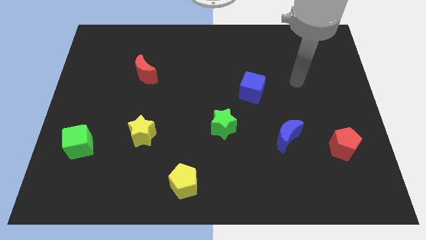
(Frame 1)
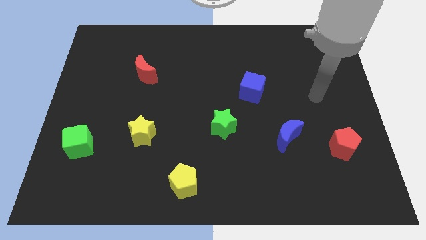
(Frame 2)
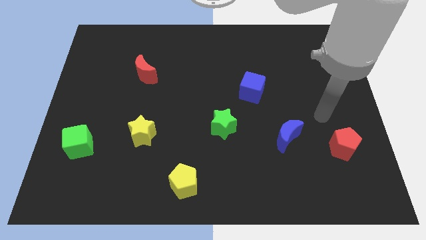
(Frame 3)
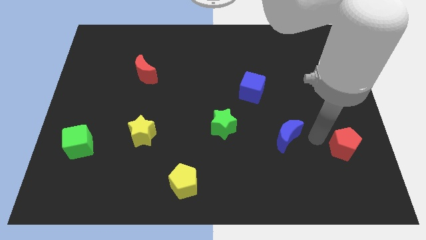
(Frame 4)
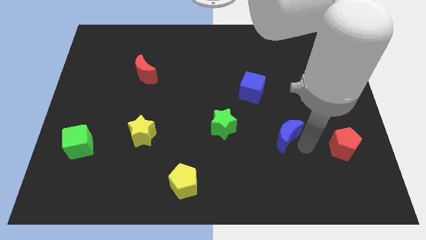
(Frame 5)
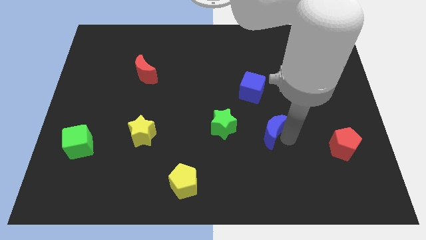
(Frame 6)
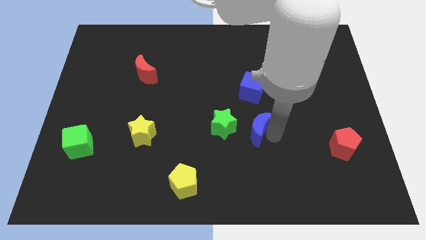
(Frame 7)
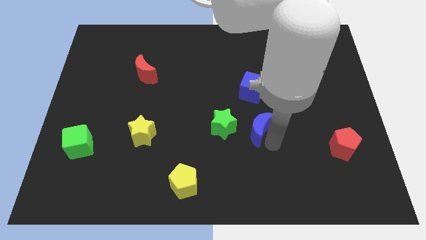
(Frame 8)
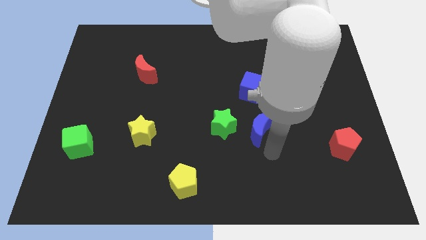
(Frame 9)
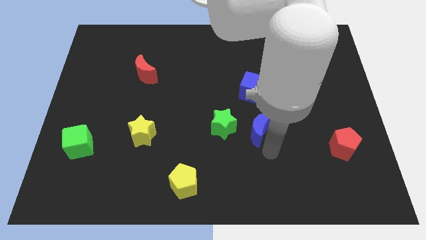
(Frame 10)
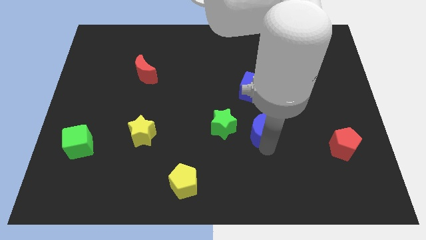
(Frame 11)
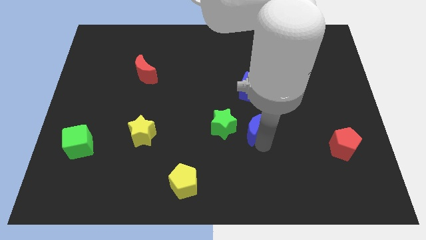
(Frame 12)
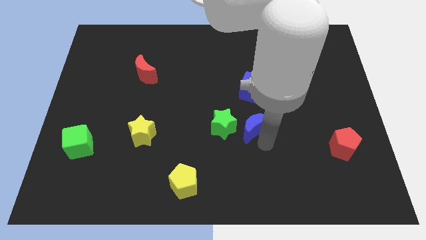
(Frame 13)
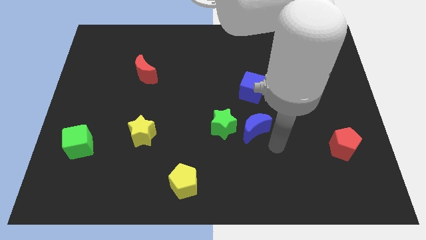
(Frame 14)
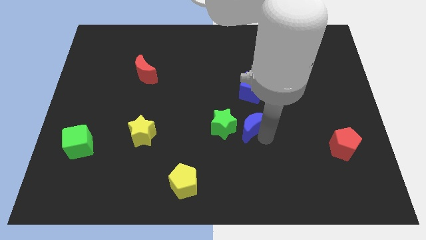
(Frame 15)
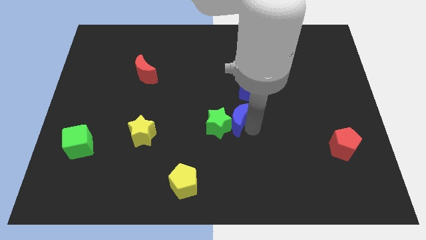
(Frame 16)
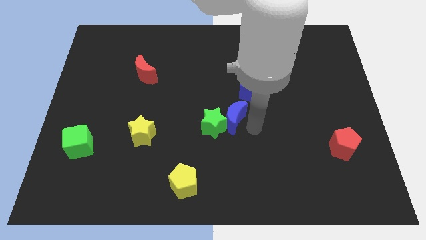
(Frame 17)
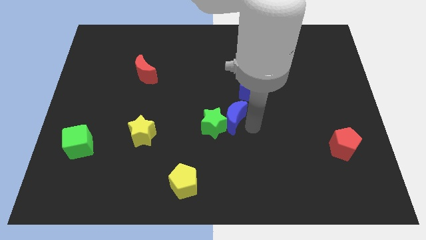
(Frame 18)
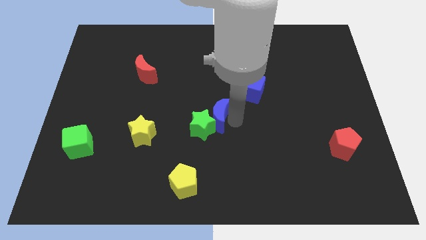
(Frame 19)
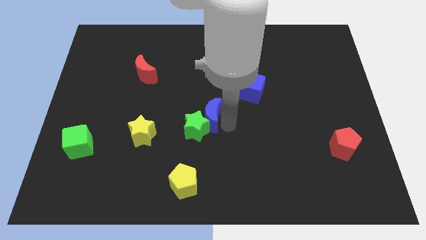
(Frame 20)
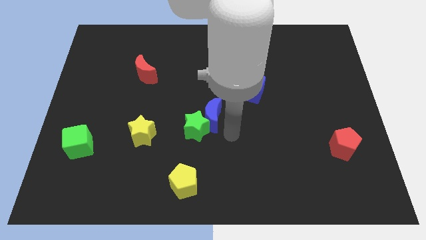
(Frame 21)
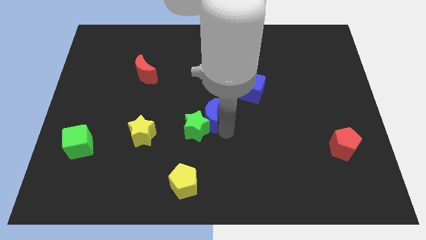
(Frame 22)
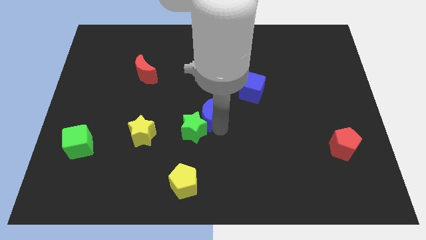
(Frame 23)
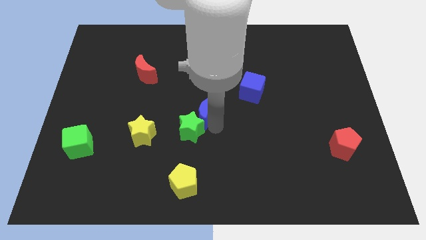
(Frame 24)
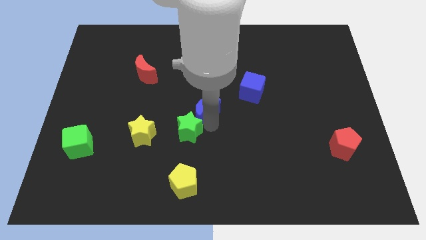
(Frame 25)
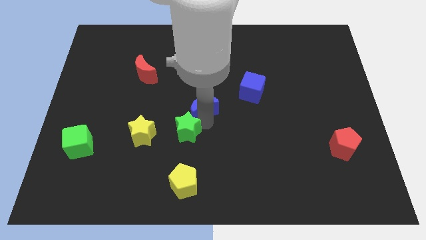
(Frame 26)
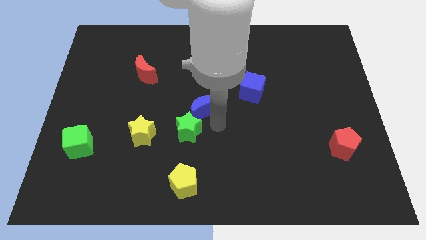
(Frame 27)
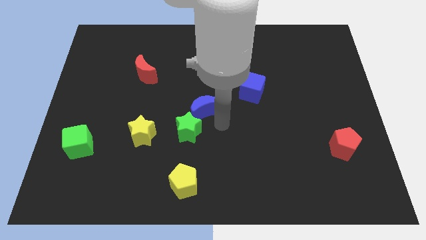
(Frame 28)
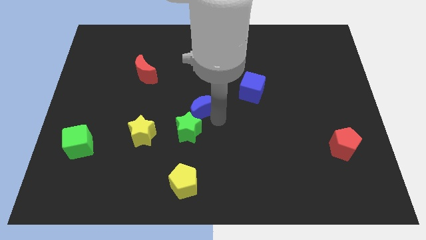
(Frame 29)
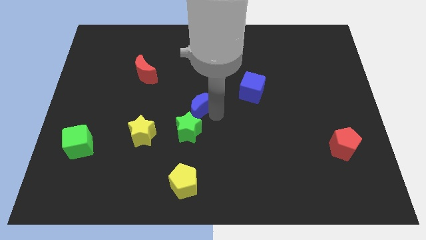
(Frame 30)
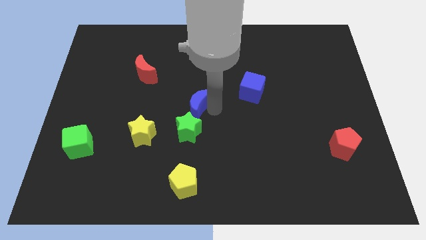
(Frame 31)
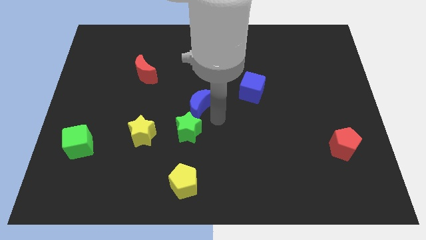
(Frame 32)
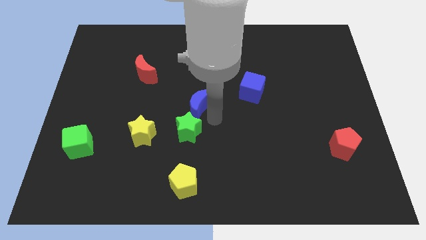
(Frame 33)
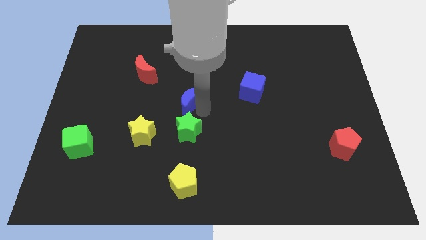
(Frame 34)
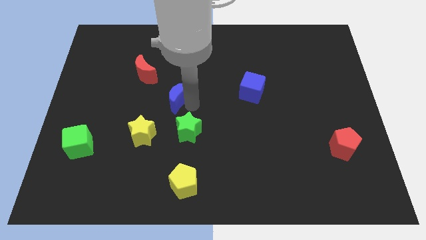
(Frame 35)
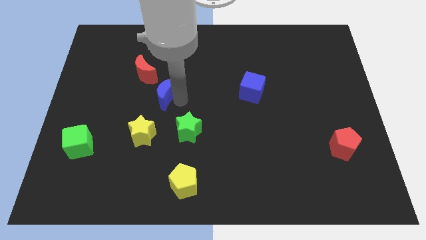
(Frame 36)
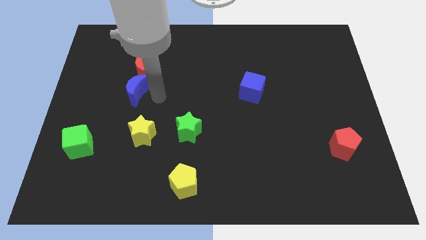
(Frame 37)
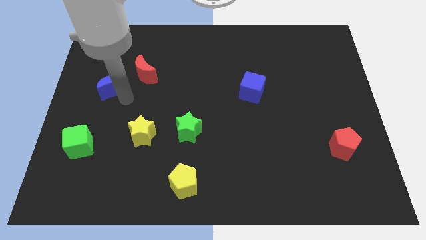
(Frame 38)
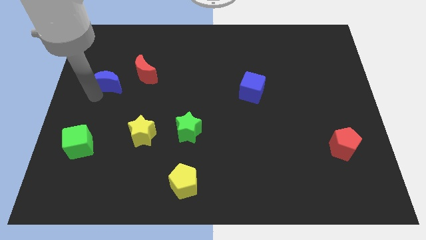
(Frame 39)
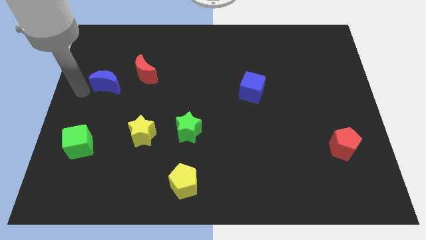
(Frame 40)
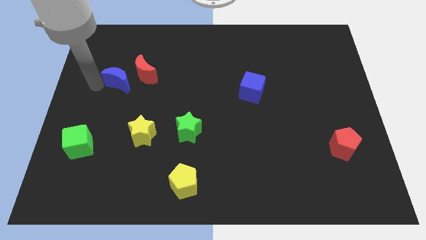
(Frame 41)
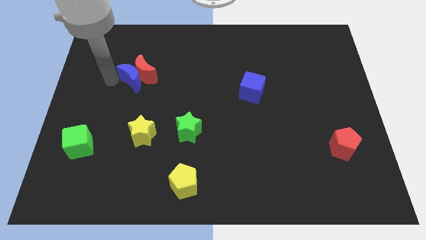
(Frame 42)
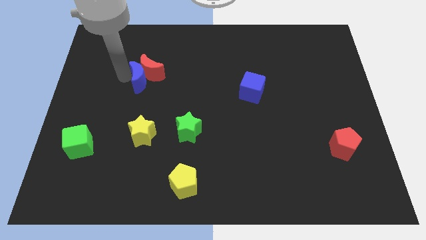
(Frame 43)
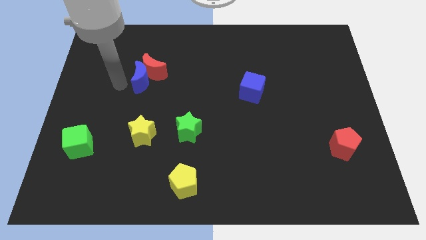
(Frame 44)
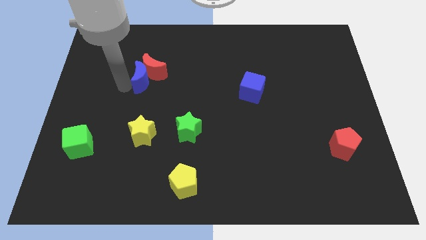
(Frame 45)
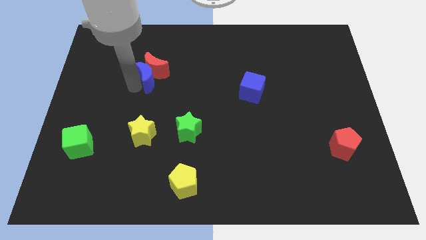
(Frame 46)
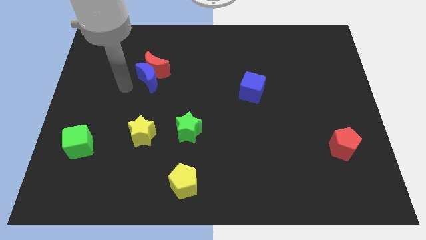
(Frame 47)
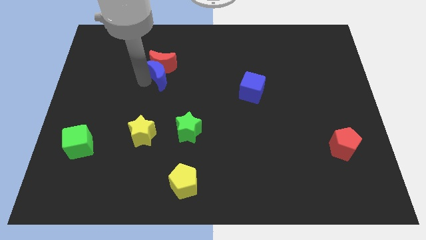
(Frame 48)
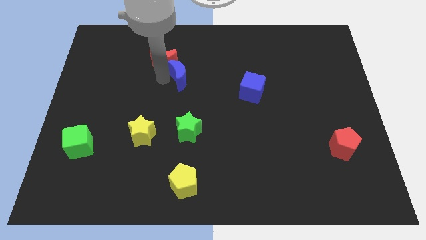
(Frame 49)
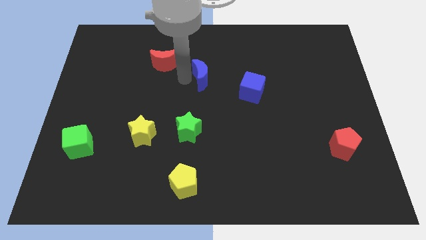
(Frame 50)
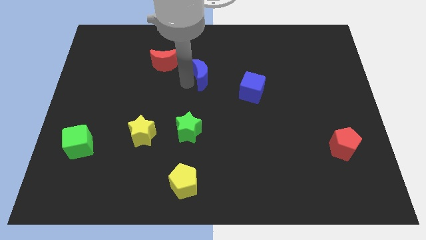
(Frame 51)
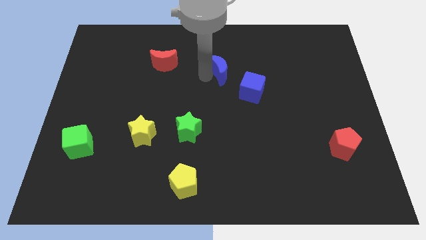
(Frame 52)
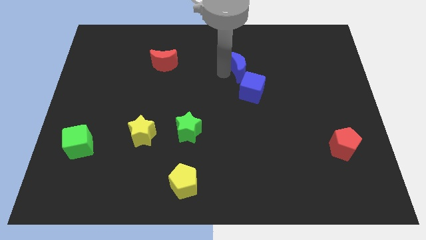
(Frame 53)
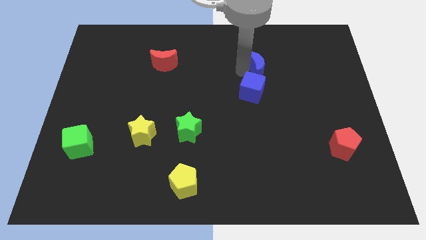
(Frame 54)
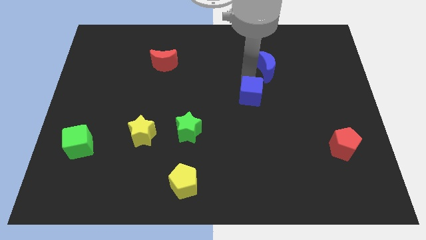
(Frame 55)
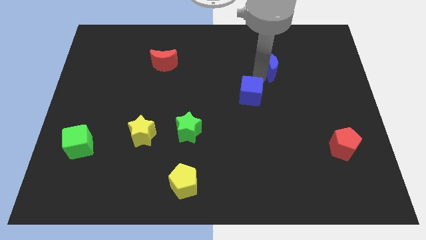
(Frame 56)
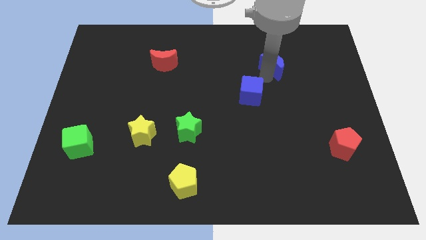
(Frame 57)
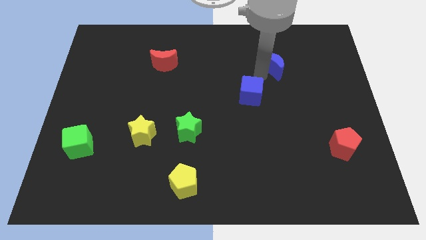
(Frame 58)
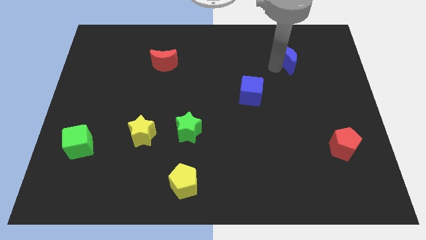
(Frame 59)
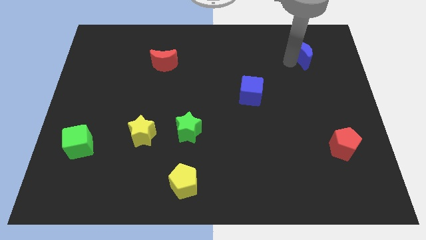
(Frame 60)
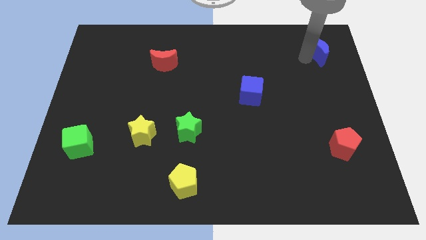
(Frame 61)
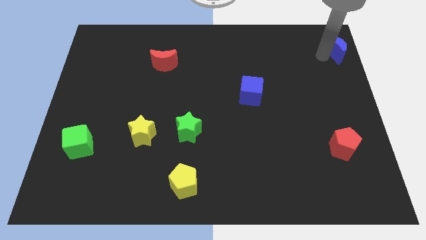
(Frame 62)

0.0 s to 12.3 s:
put the blue moon to the top right corner

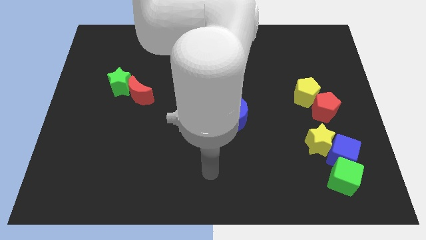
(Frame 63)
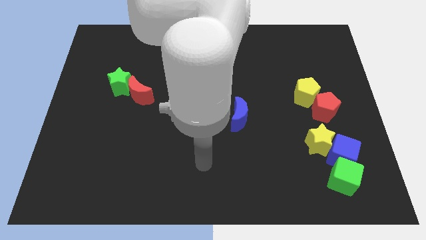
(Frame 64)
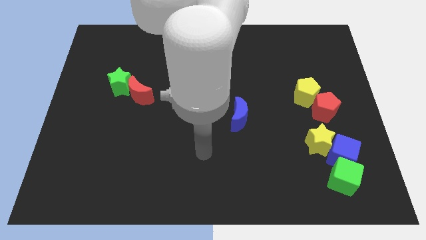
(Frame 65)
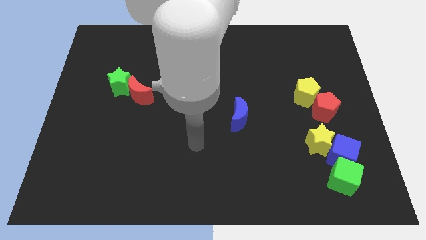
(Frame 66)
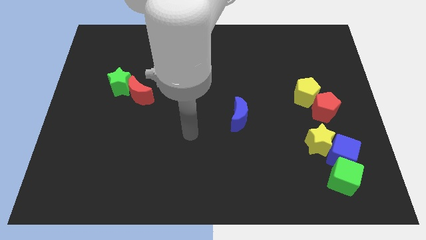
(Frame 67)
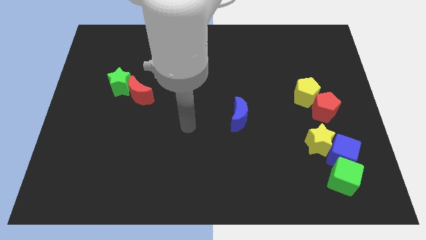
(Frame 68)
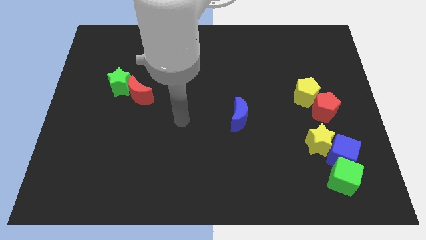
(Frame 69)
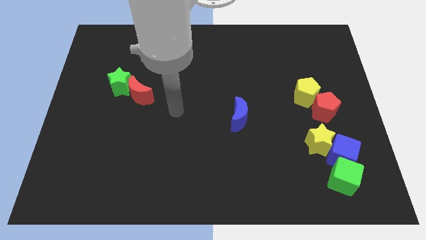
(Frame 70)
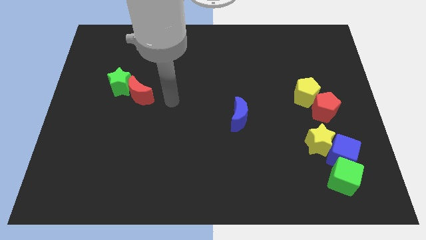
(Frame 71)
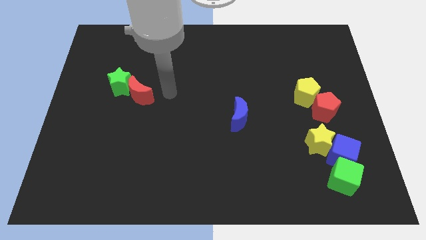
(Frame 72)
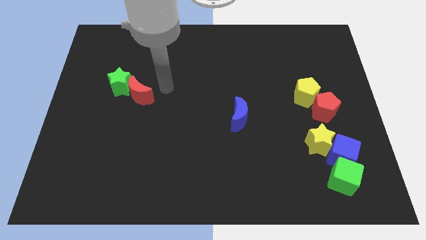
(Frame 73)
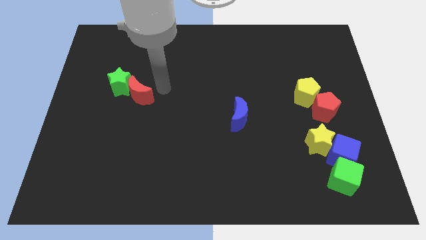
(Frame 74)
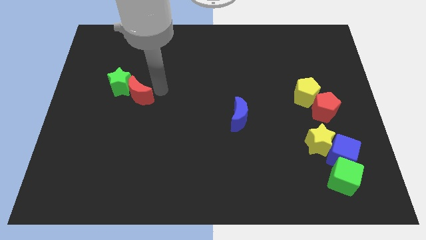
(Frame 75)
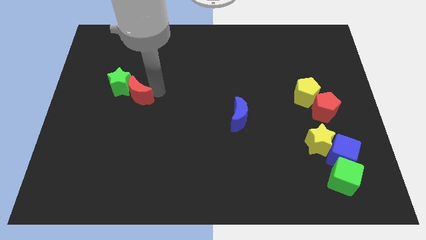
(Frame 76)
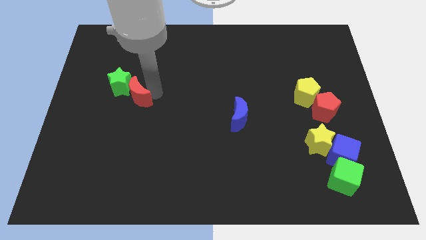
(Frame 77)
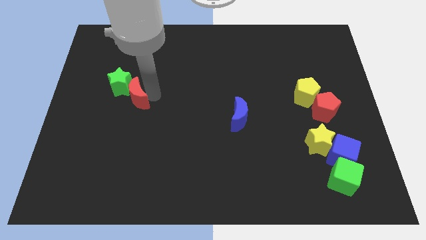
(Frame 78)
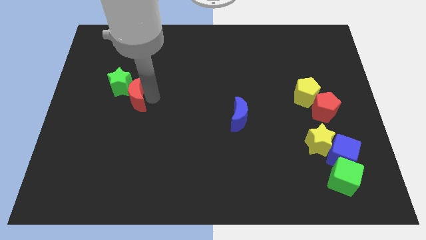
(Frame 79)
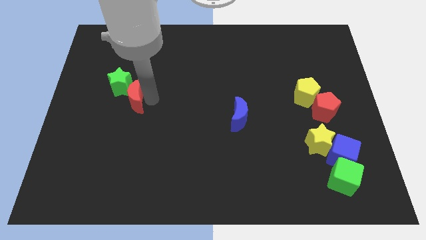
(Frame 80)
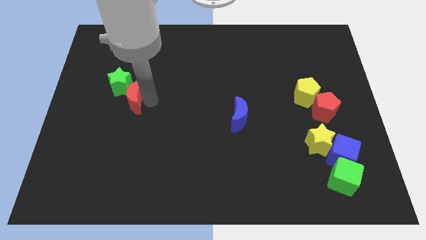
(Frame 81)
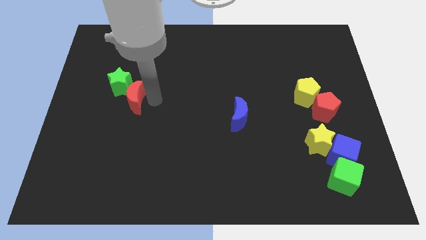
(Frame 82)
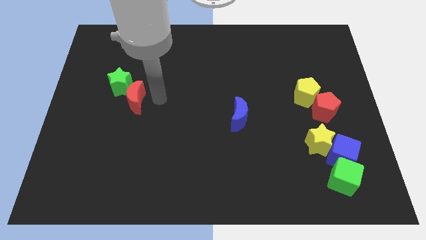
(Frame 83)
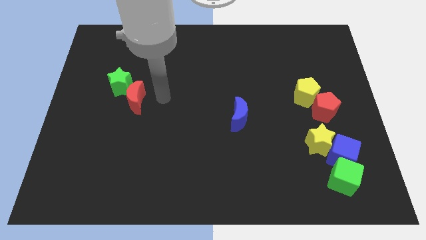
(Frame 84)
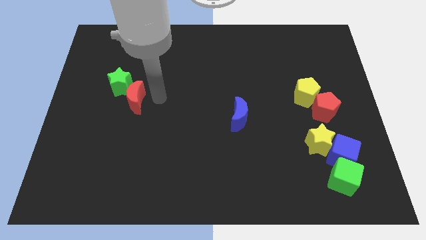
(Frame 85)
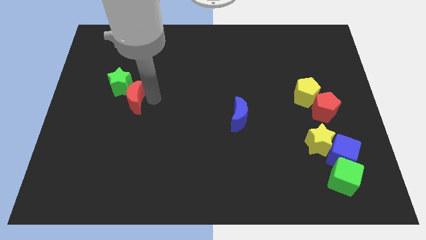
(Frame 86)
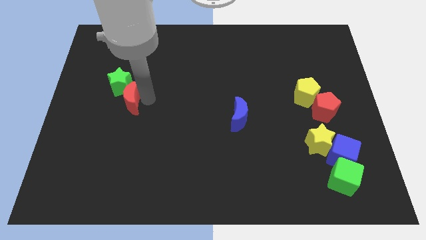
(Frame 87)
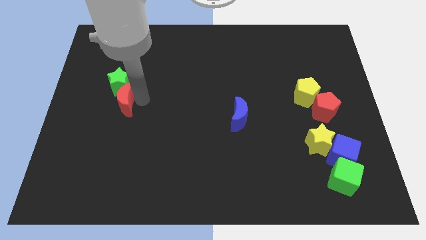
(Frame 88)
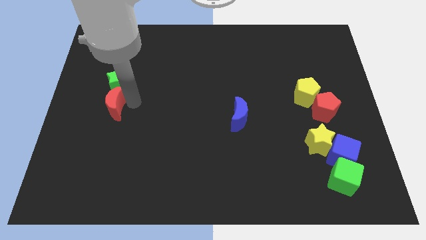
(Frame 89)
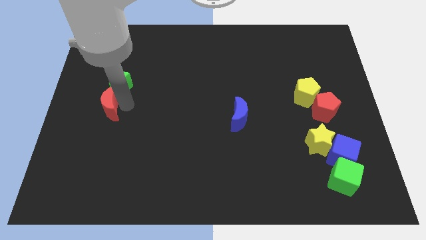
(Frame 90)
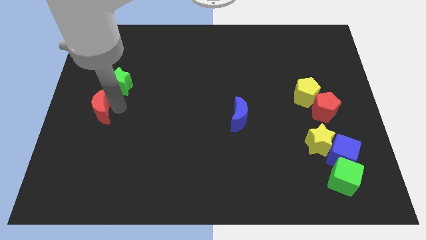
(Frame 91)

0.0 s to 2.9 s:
push the red moon to the center left
